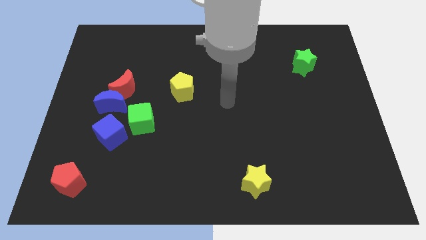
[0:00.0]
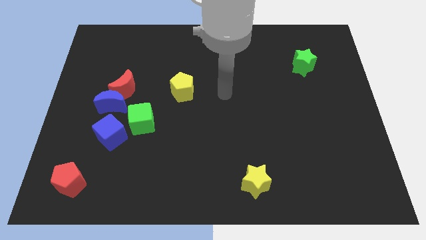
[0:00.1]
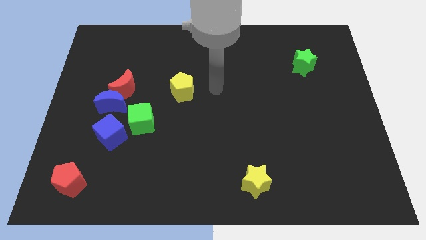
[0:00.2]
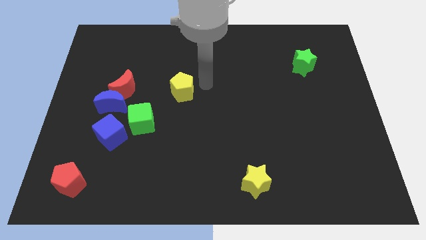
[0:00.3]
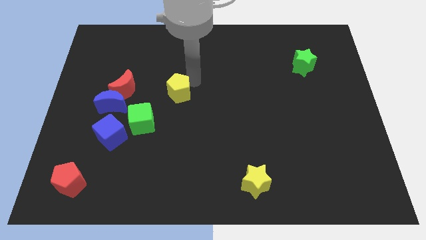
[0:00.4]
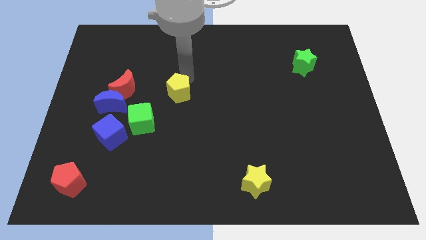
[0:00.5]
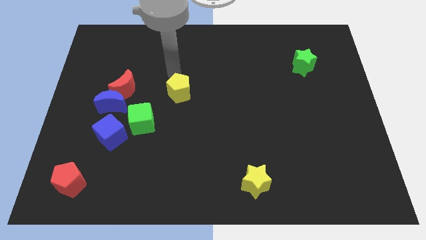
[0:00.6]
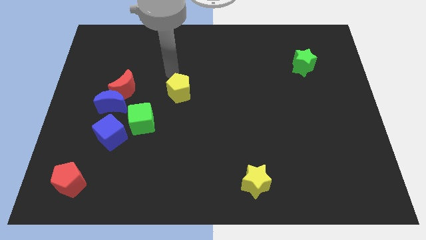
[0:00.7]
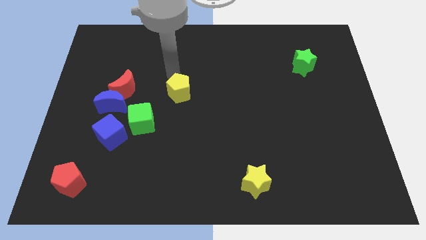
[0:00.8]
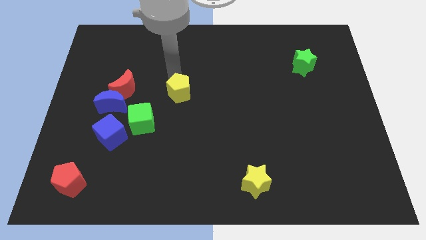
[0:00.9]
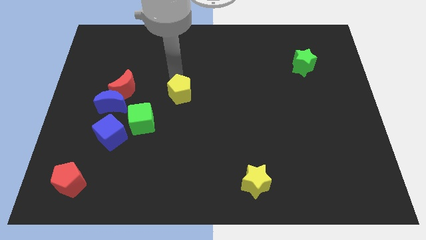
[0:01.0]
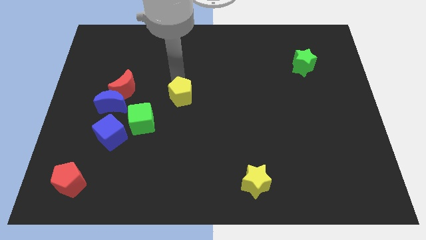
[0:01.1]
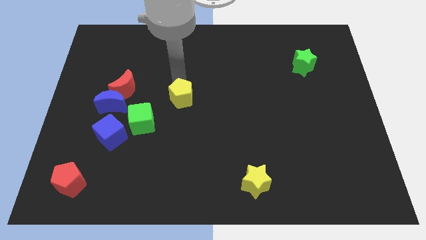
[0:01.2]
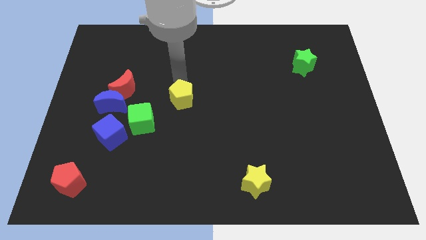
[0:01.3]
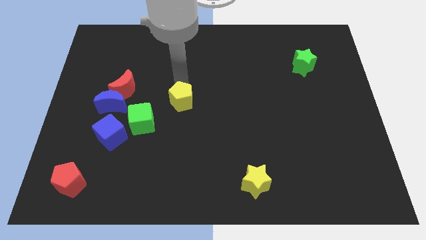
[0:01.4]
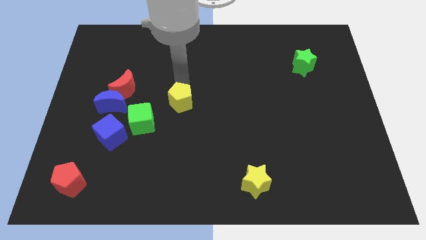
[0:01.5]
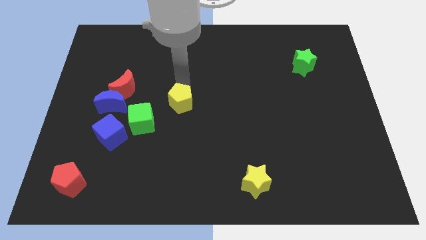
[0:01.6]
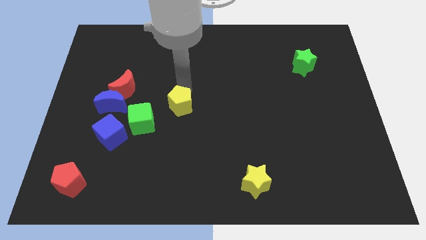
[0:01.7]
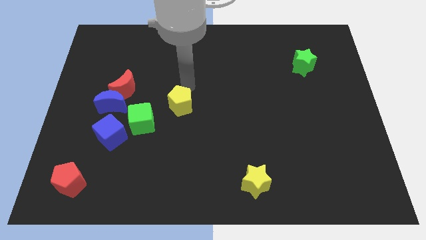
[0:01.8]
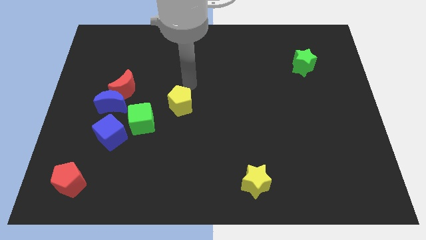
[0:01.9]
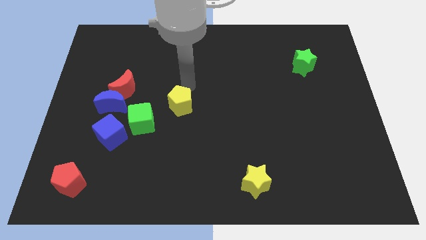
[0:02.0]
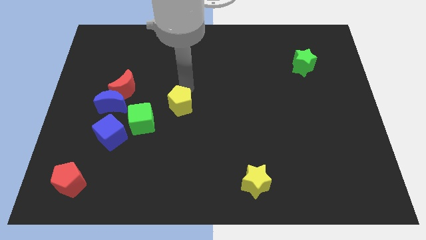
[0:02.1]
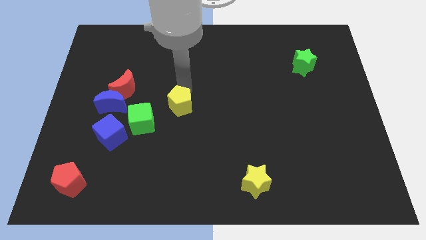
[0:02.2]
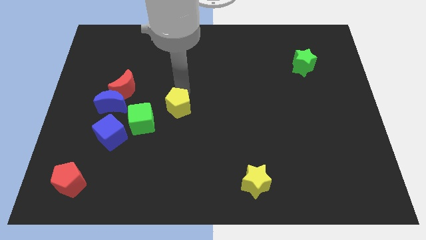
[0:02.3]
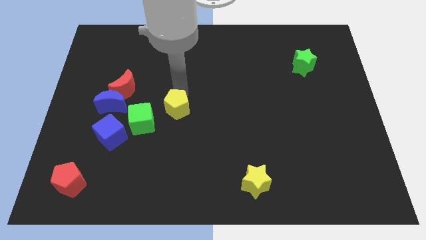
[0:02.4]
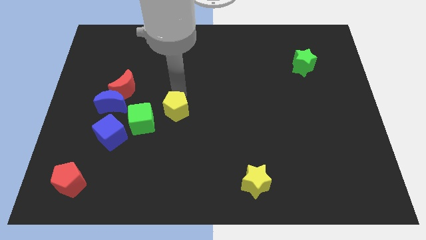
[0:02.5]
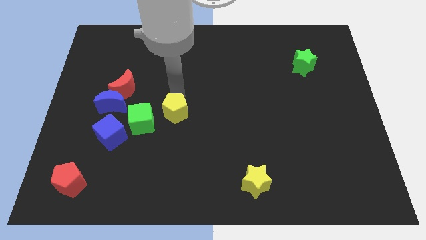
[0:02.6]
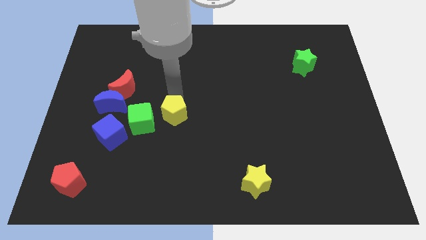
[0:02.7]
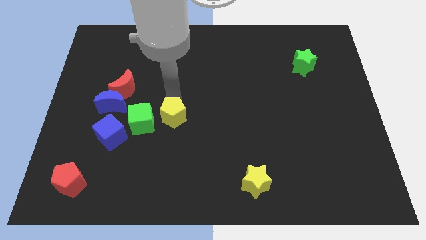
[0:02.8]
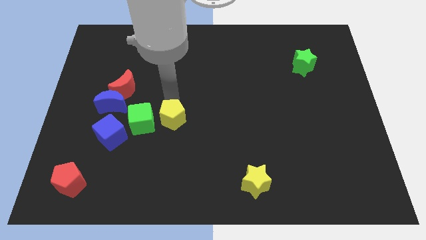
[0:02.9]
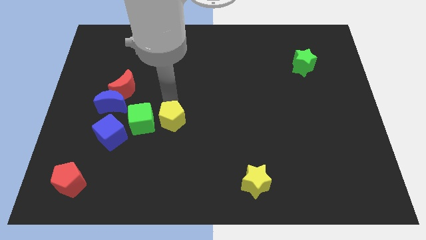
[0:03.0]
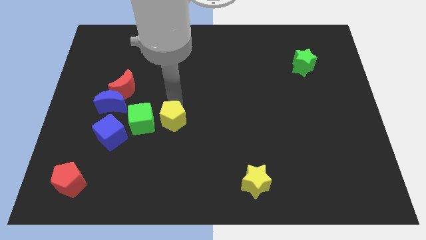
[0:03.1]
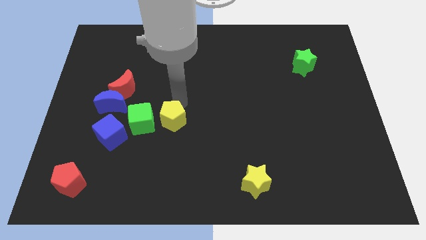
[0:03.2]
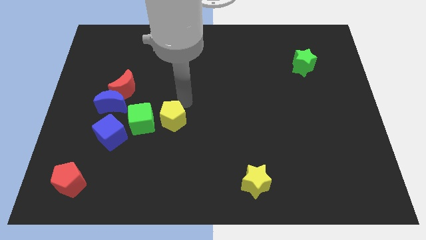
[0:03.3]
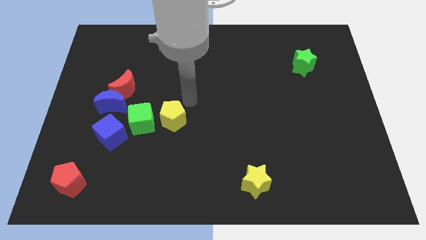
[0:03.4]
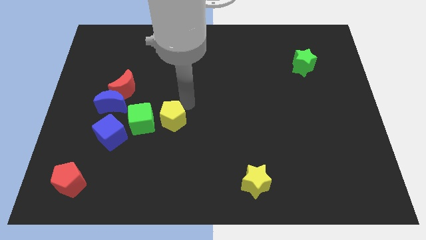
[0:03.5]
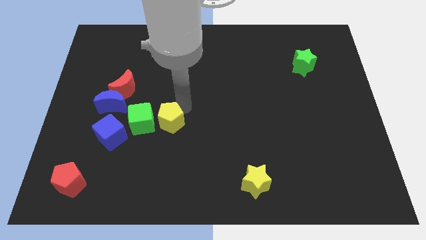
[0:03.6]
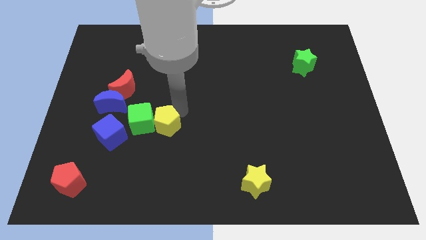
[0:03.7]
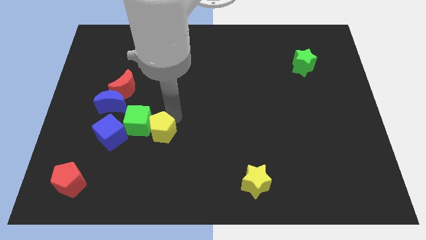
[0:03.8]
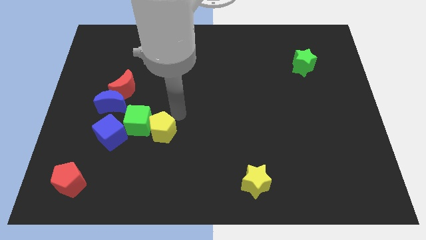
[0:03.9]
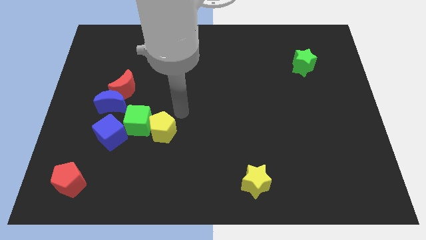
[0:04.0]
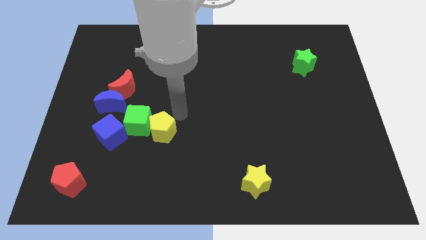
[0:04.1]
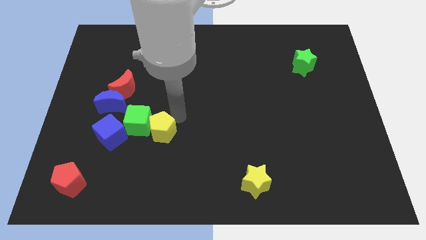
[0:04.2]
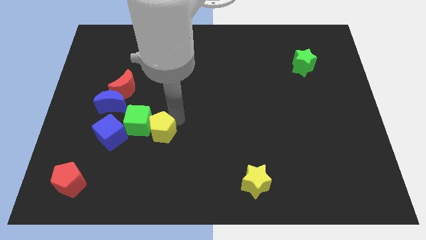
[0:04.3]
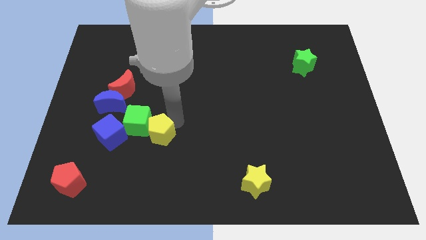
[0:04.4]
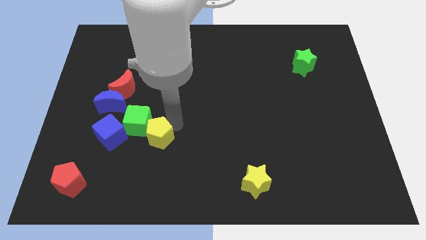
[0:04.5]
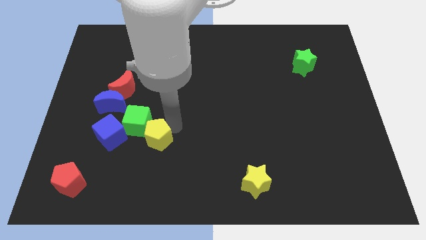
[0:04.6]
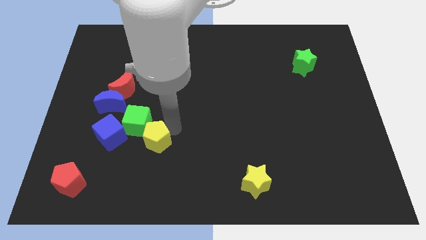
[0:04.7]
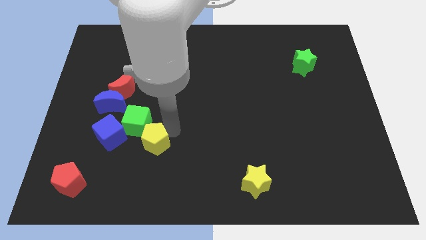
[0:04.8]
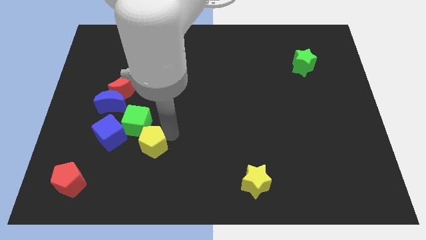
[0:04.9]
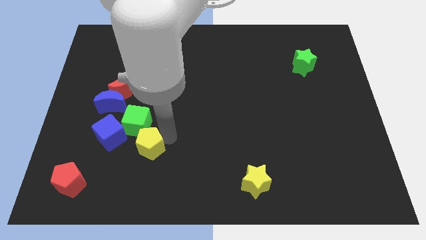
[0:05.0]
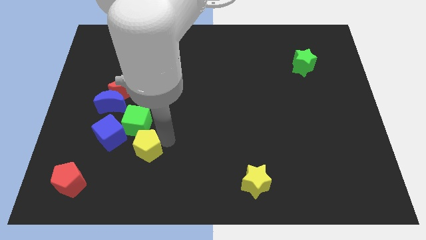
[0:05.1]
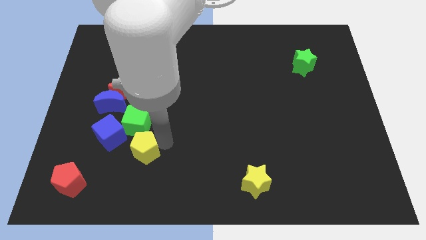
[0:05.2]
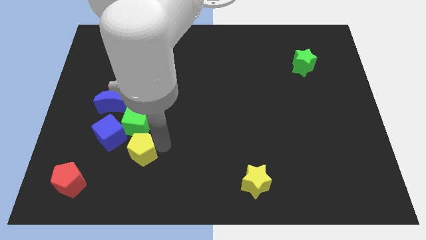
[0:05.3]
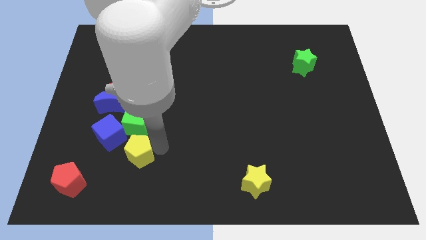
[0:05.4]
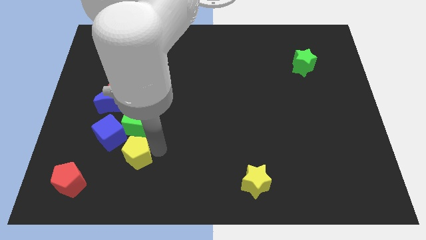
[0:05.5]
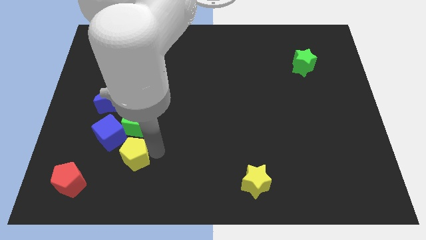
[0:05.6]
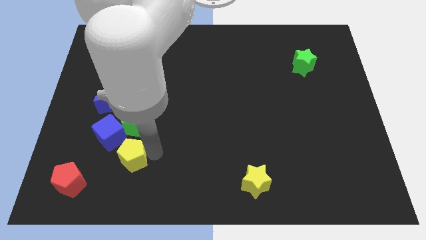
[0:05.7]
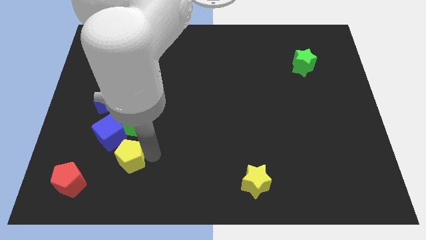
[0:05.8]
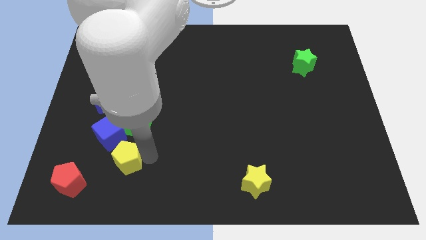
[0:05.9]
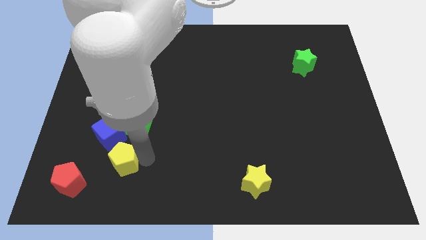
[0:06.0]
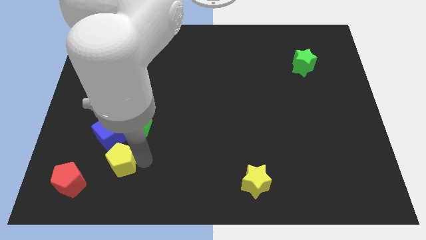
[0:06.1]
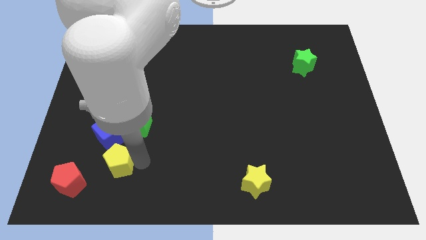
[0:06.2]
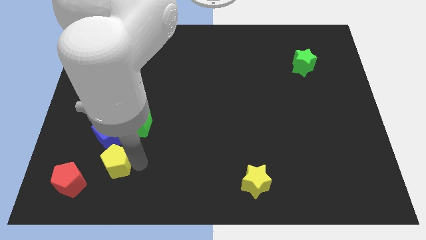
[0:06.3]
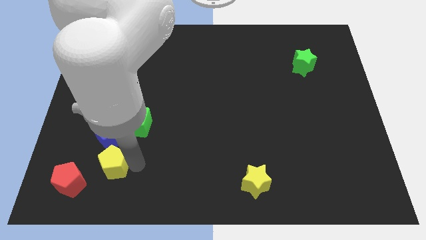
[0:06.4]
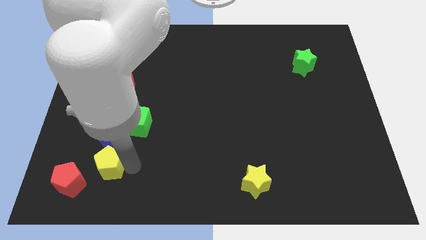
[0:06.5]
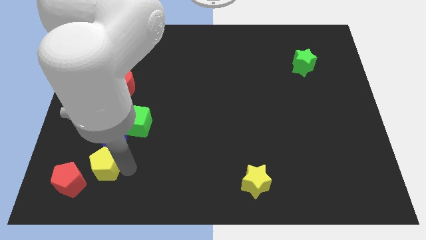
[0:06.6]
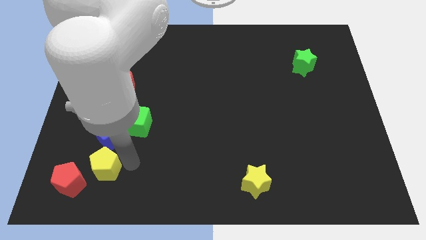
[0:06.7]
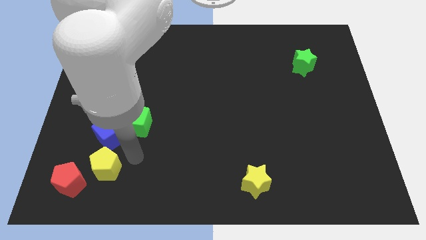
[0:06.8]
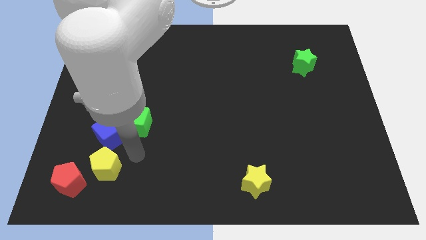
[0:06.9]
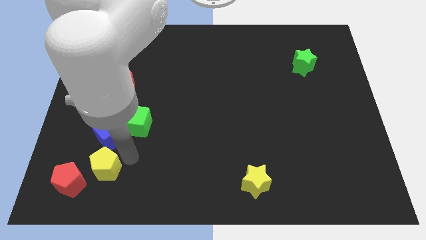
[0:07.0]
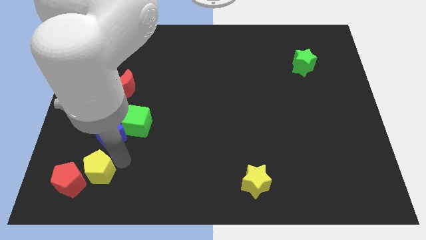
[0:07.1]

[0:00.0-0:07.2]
move the yellow pentagon to the red pentagon

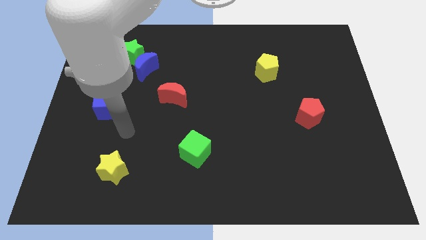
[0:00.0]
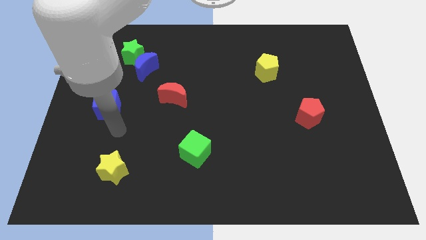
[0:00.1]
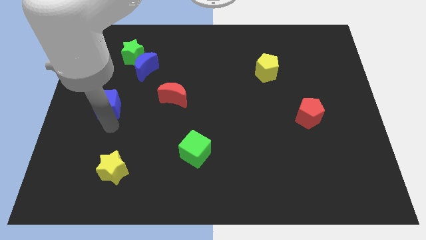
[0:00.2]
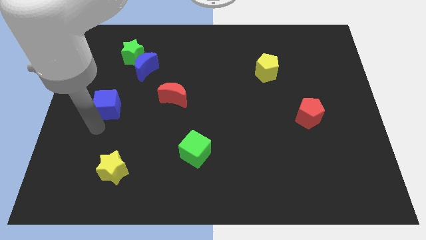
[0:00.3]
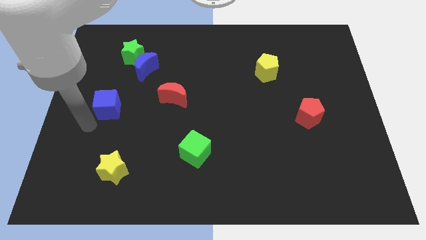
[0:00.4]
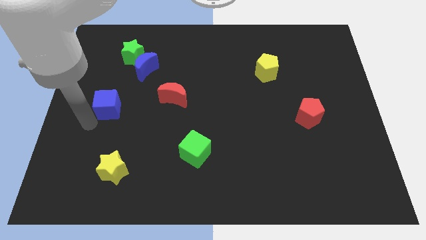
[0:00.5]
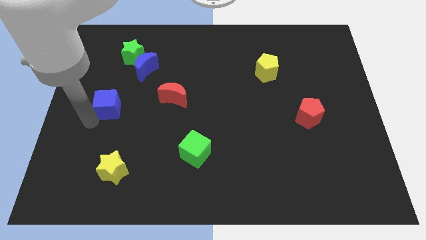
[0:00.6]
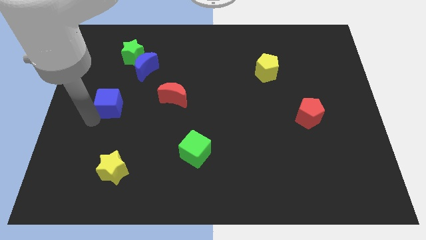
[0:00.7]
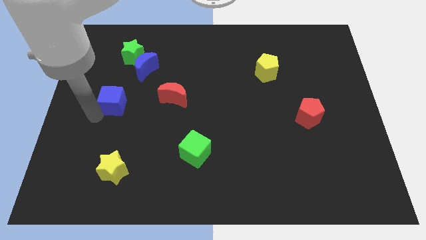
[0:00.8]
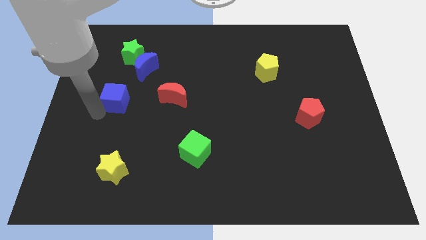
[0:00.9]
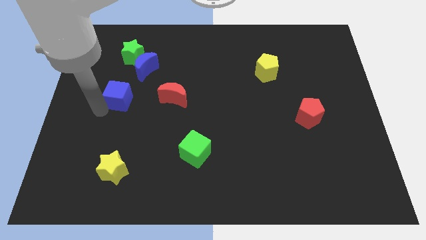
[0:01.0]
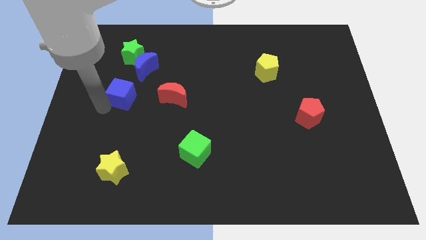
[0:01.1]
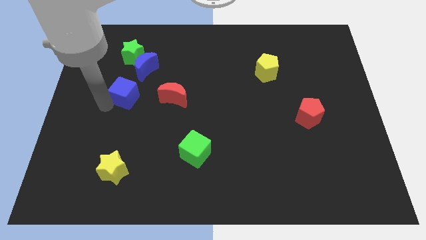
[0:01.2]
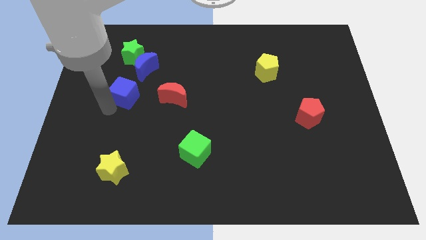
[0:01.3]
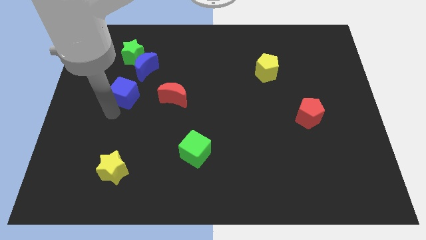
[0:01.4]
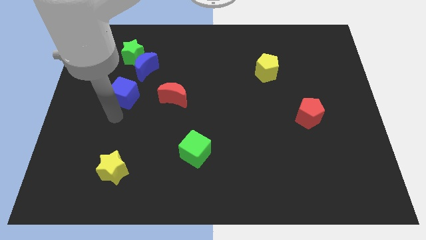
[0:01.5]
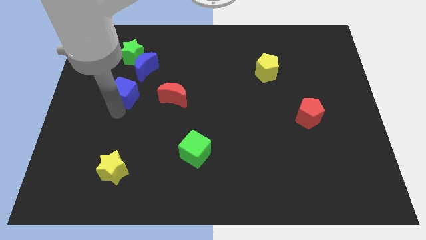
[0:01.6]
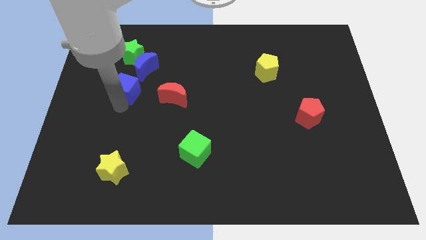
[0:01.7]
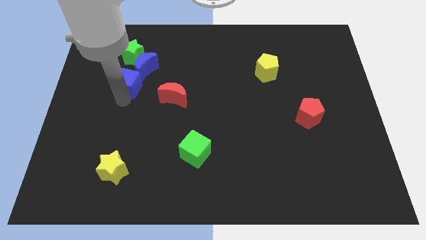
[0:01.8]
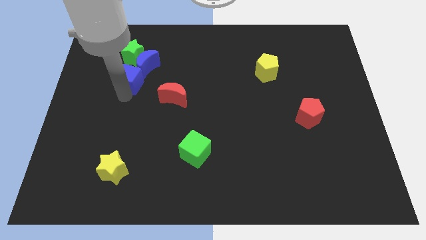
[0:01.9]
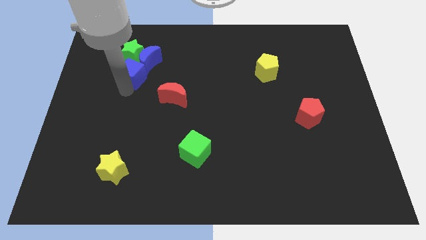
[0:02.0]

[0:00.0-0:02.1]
push the blue cube towards the blue moon
